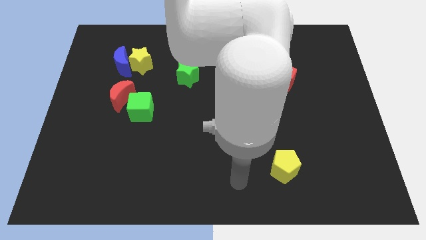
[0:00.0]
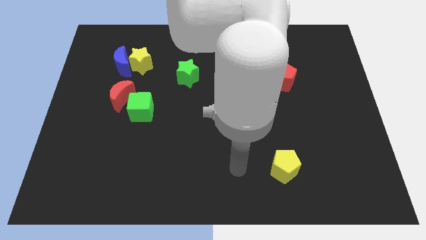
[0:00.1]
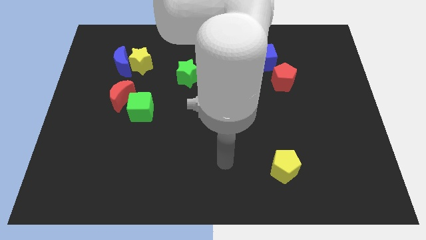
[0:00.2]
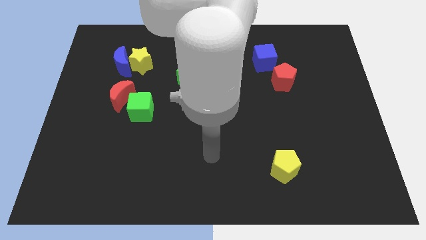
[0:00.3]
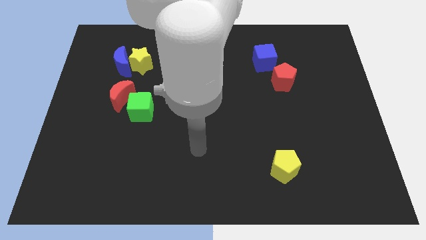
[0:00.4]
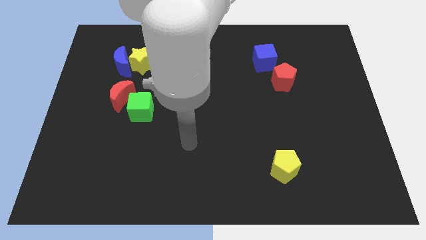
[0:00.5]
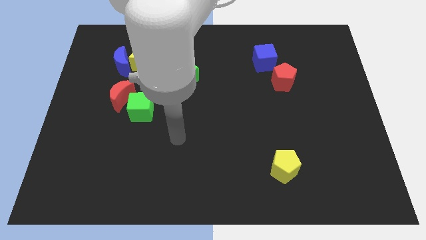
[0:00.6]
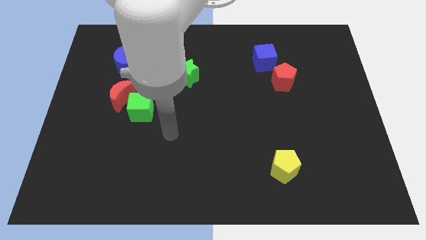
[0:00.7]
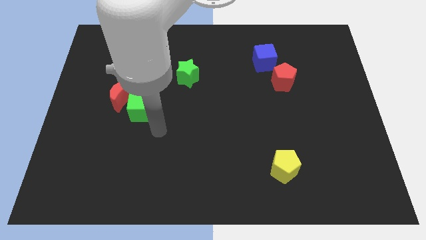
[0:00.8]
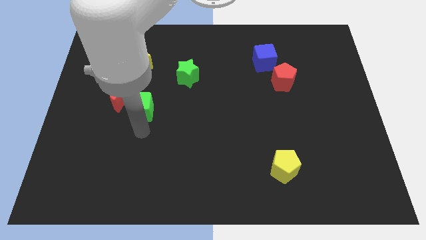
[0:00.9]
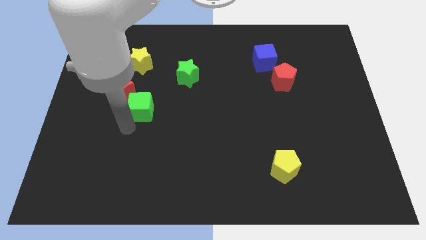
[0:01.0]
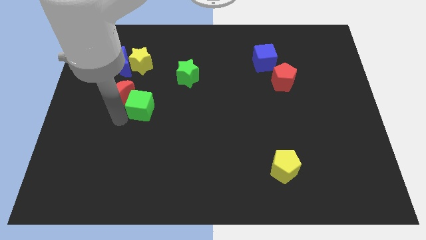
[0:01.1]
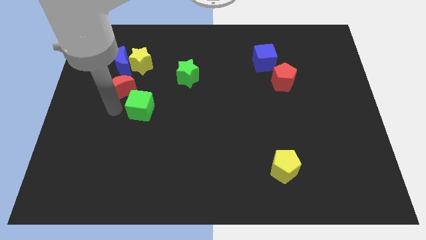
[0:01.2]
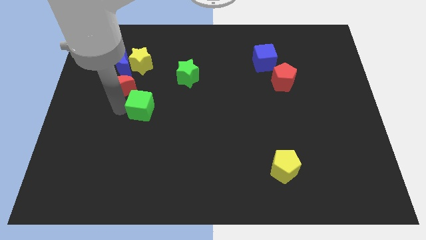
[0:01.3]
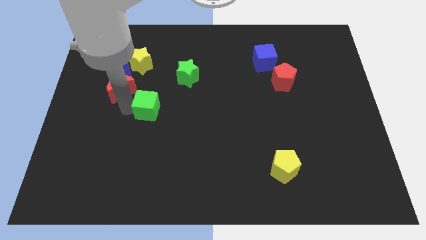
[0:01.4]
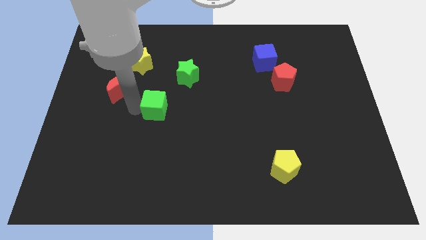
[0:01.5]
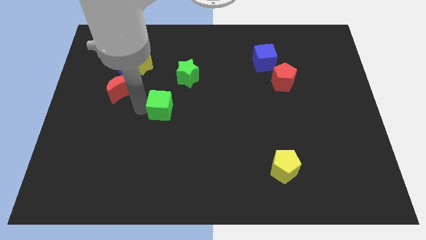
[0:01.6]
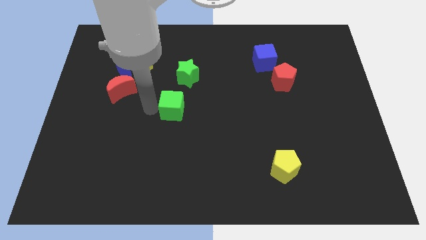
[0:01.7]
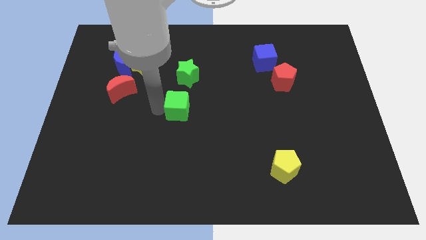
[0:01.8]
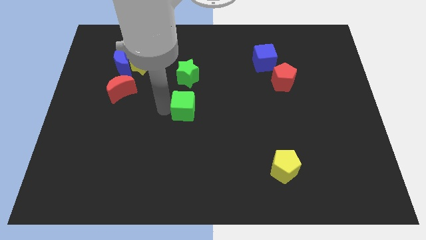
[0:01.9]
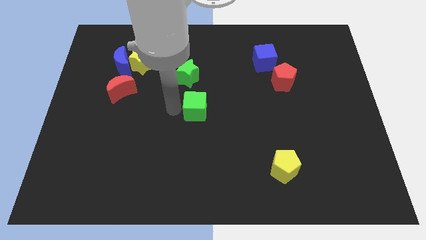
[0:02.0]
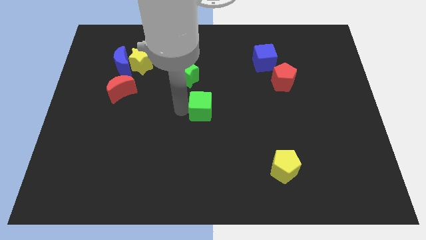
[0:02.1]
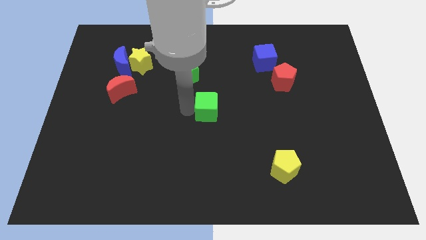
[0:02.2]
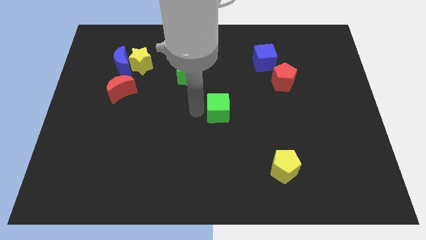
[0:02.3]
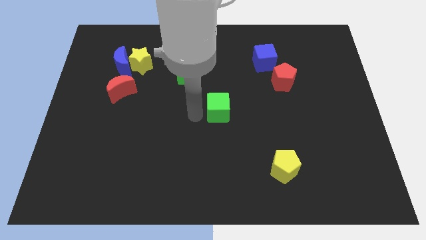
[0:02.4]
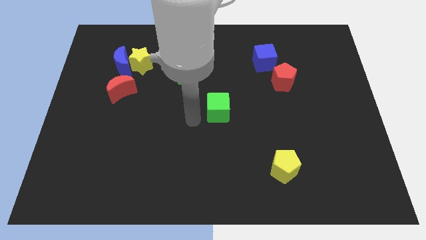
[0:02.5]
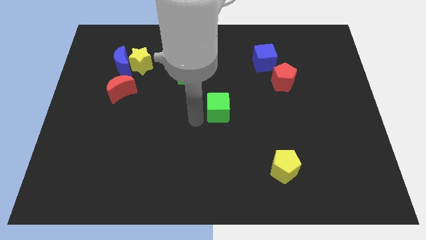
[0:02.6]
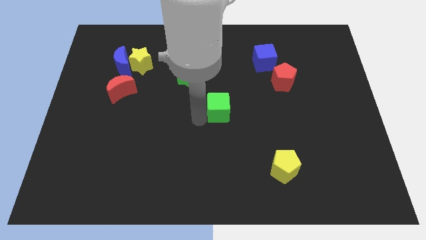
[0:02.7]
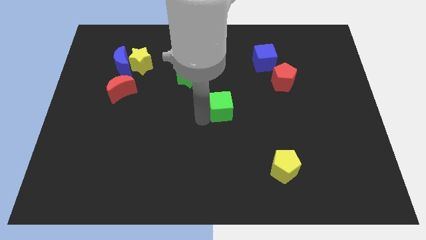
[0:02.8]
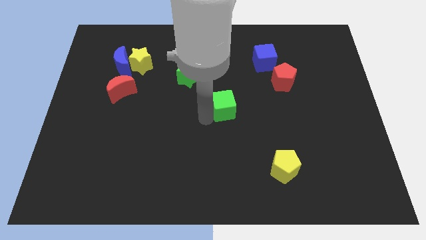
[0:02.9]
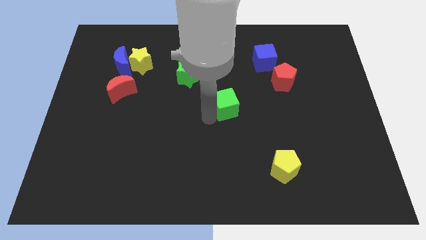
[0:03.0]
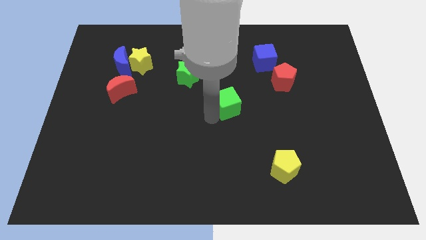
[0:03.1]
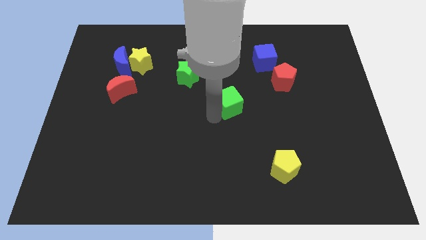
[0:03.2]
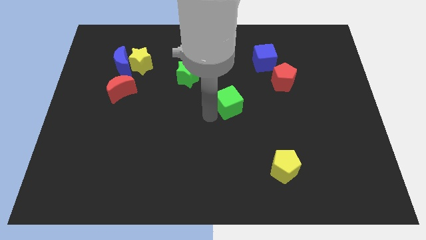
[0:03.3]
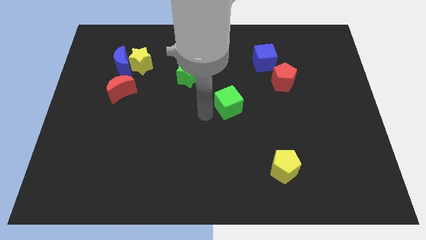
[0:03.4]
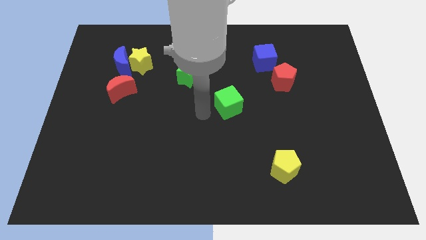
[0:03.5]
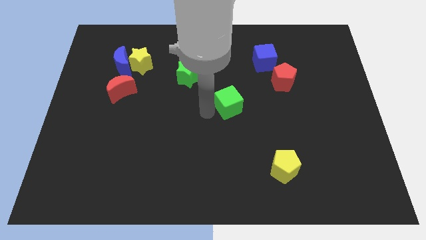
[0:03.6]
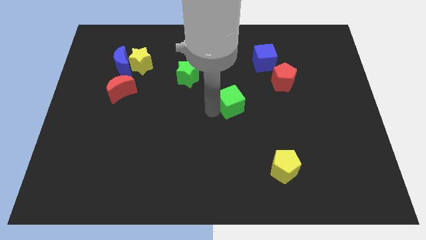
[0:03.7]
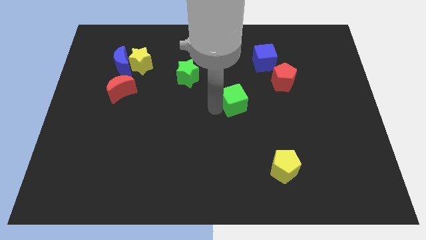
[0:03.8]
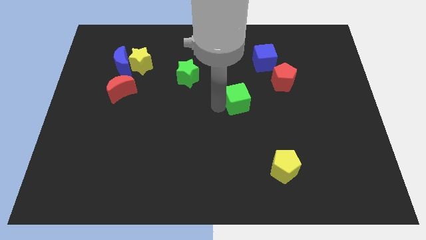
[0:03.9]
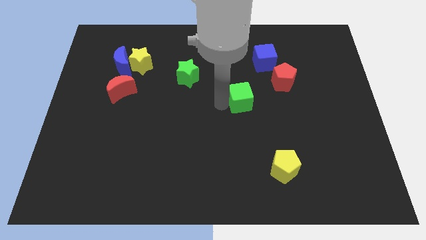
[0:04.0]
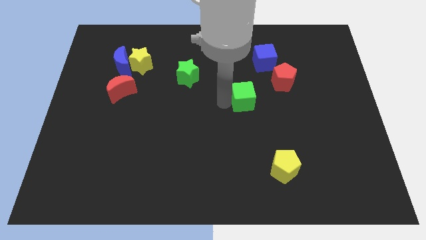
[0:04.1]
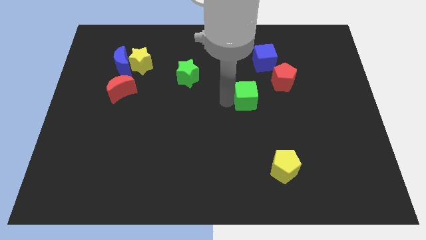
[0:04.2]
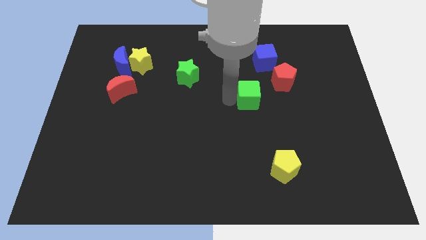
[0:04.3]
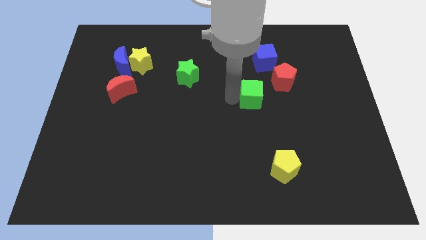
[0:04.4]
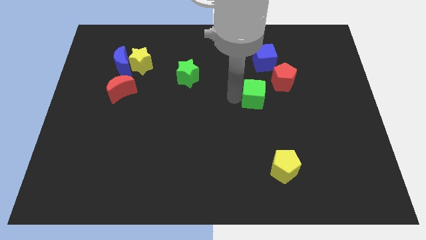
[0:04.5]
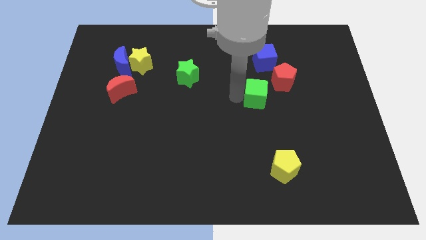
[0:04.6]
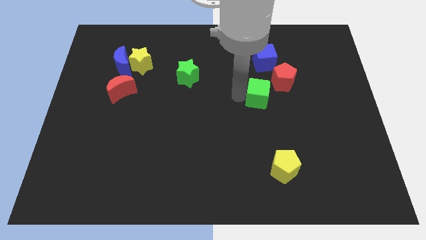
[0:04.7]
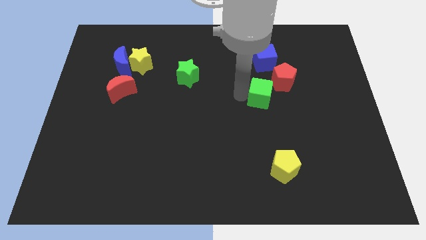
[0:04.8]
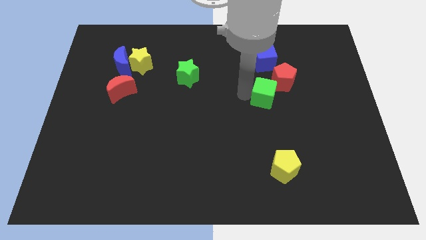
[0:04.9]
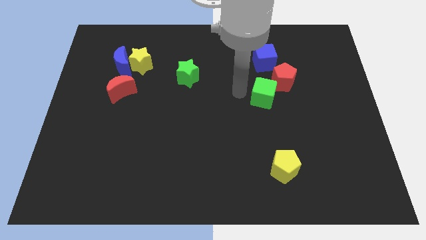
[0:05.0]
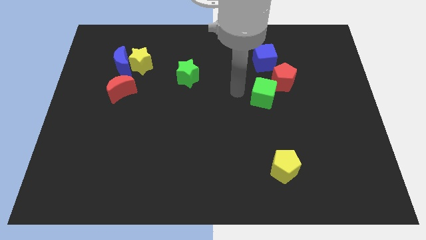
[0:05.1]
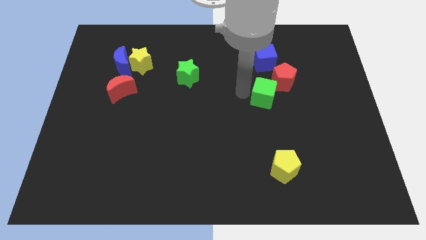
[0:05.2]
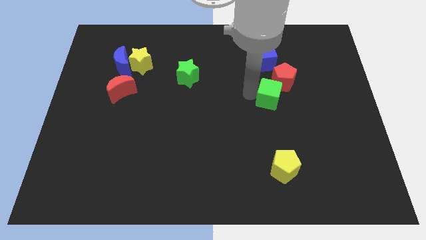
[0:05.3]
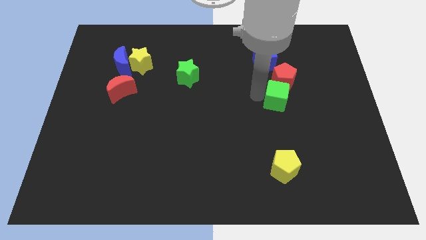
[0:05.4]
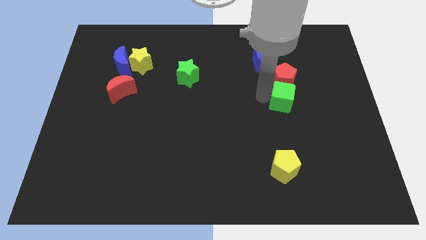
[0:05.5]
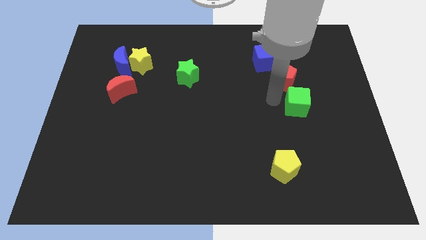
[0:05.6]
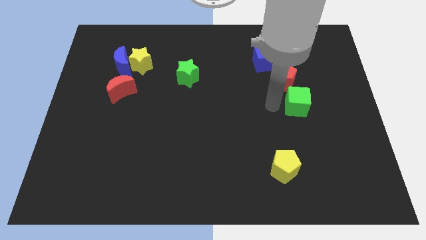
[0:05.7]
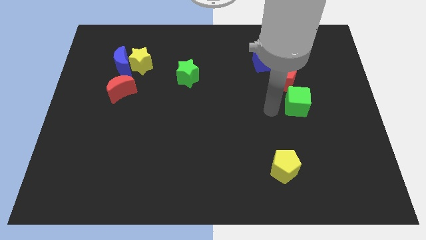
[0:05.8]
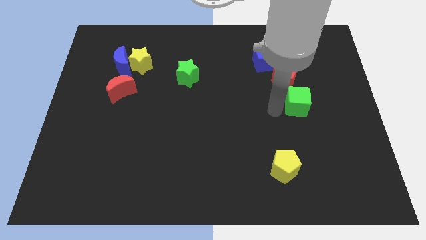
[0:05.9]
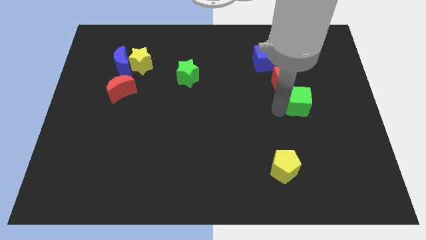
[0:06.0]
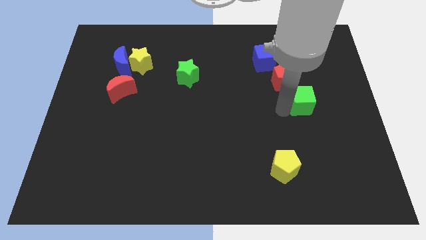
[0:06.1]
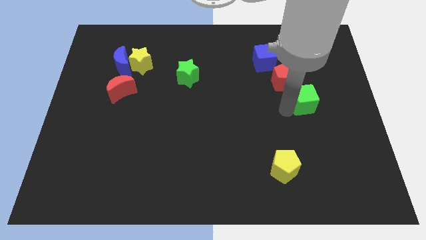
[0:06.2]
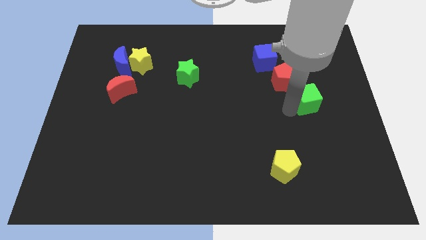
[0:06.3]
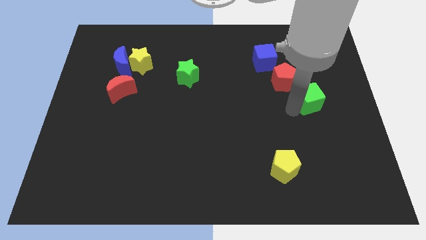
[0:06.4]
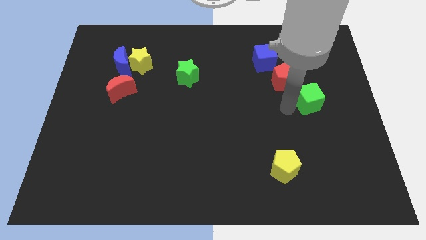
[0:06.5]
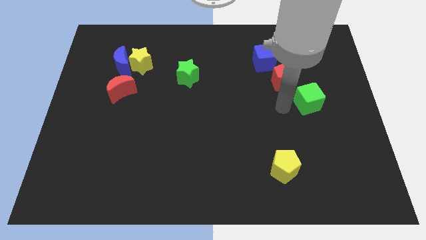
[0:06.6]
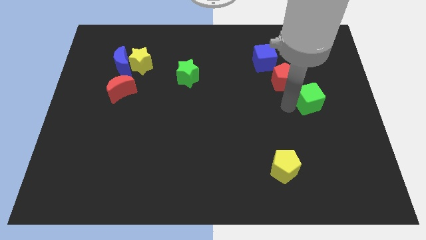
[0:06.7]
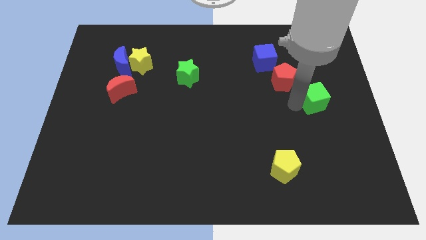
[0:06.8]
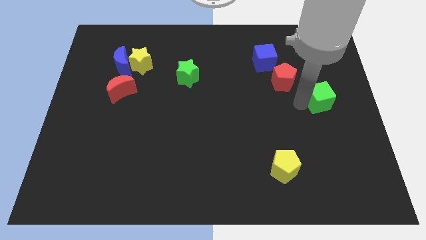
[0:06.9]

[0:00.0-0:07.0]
put the green cube to the right side
